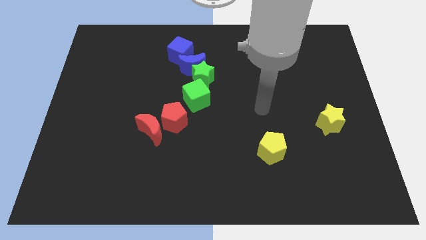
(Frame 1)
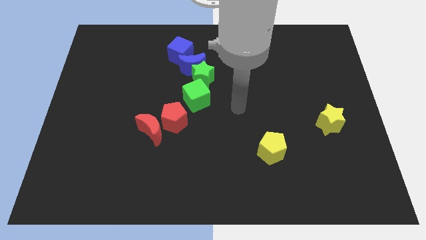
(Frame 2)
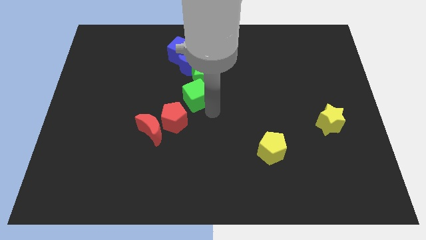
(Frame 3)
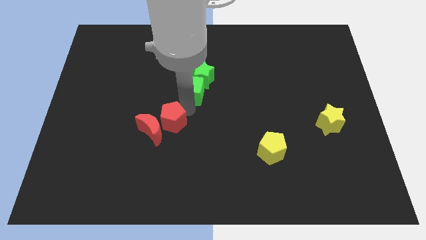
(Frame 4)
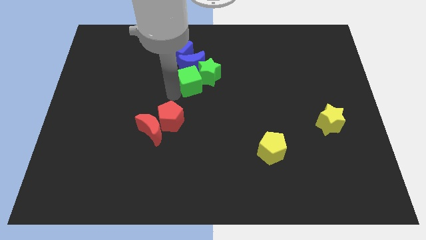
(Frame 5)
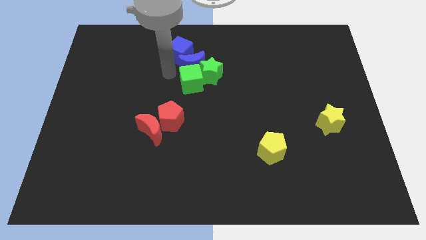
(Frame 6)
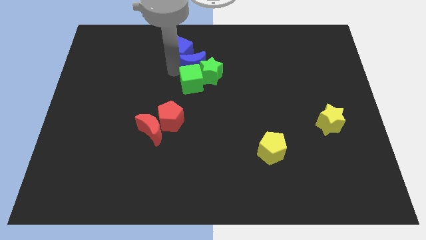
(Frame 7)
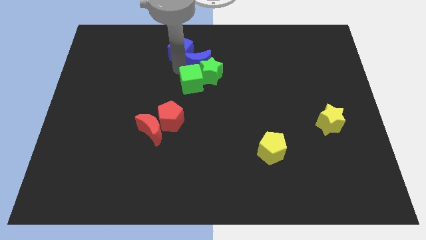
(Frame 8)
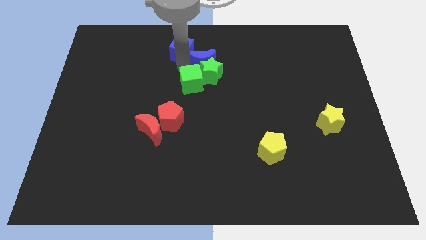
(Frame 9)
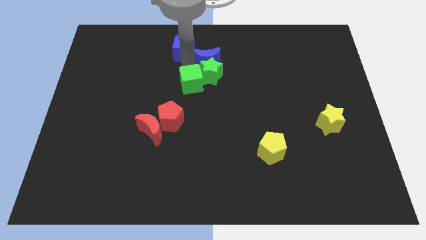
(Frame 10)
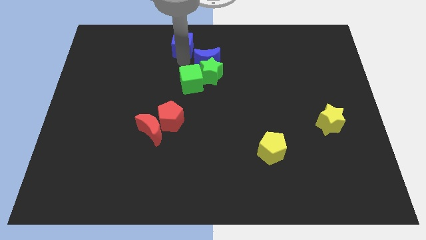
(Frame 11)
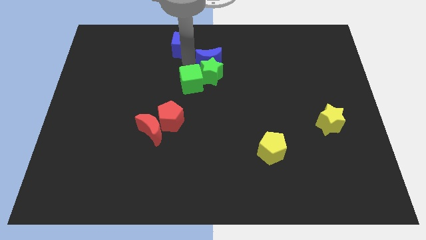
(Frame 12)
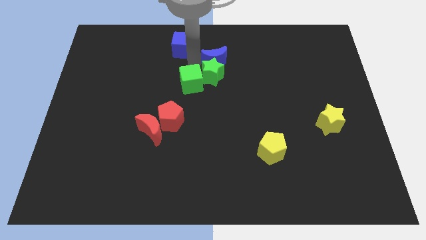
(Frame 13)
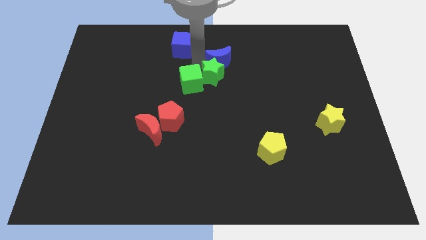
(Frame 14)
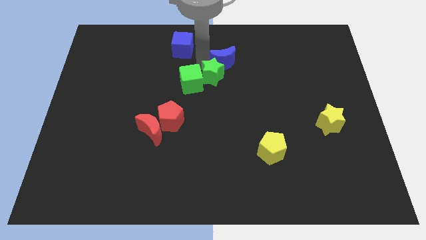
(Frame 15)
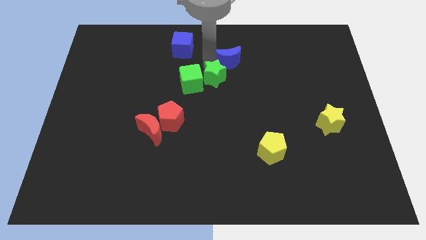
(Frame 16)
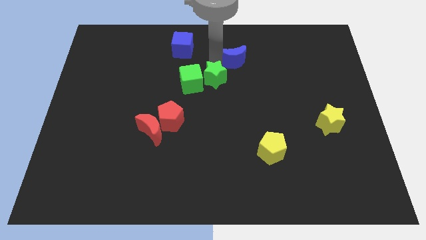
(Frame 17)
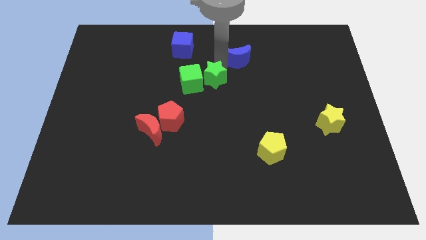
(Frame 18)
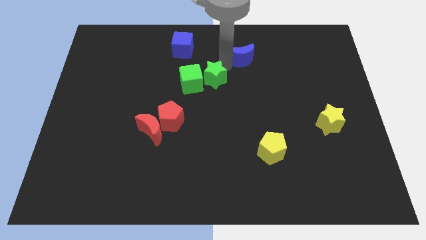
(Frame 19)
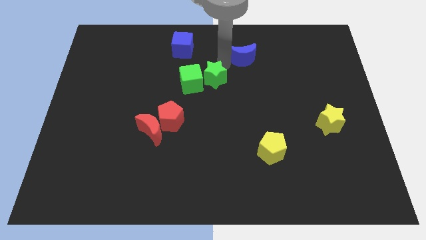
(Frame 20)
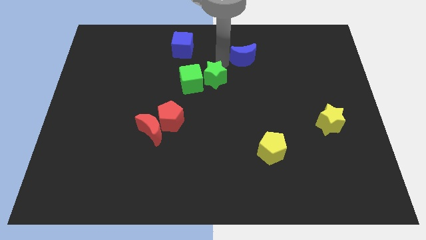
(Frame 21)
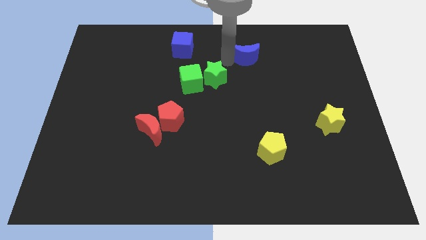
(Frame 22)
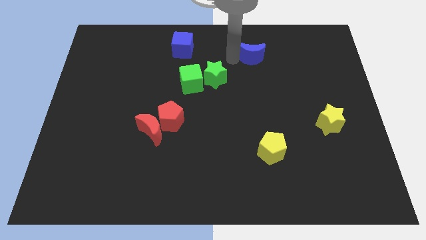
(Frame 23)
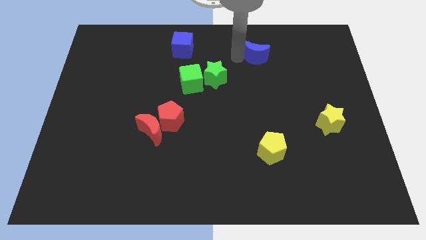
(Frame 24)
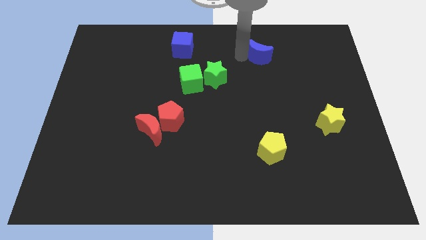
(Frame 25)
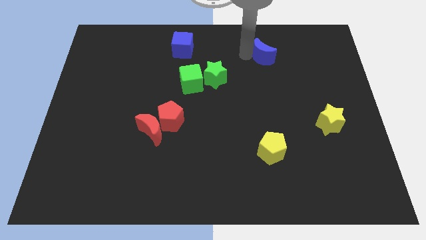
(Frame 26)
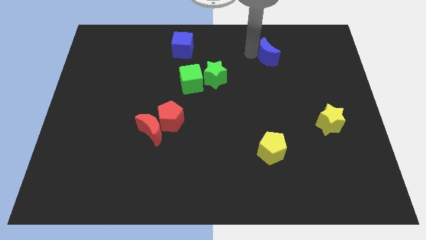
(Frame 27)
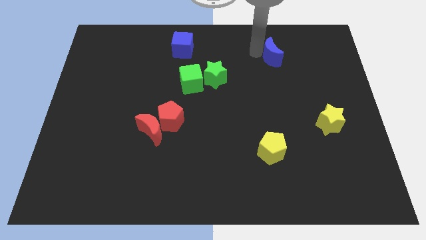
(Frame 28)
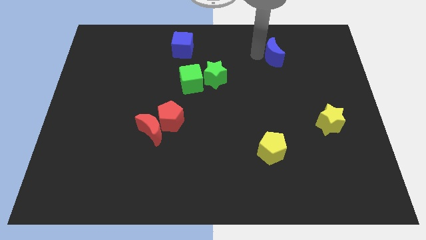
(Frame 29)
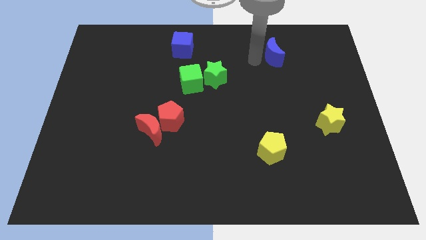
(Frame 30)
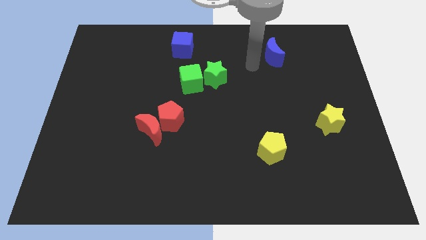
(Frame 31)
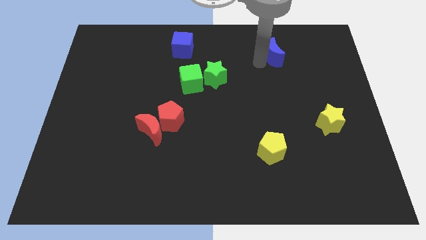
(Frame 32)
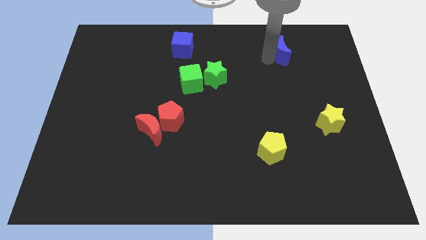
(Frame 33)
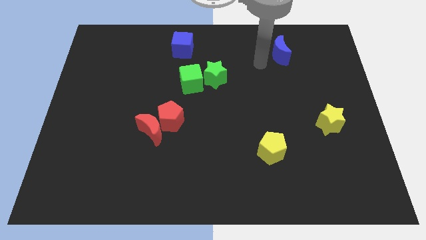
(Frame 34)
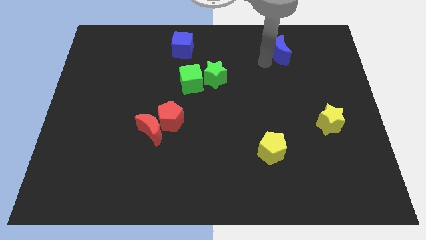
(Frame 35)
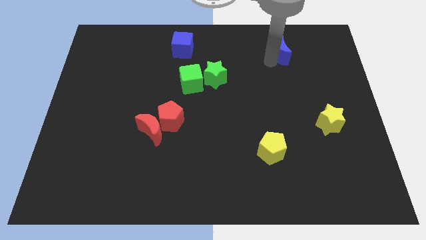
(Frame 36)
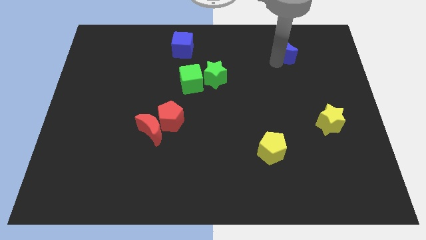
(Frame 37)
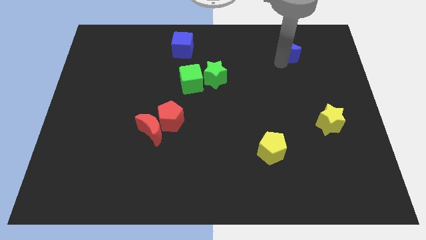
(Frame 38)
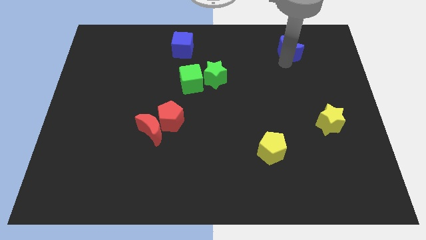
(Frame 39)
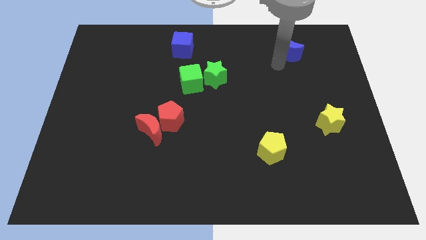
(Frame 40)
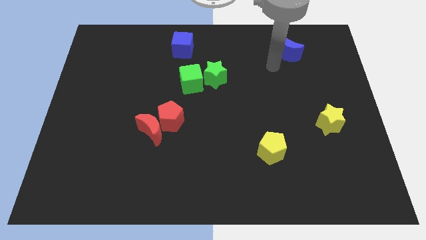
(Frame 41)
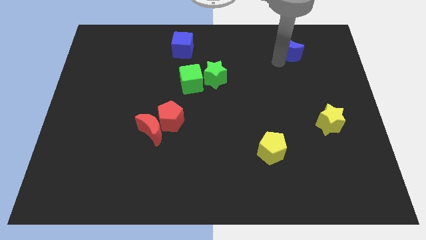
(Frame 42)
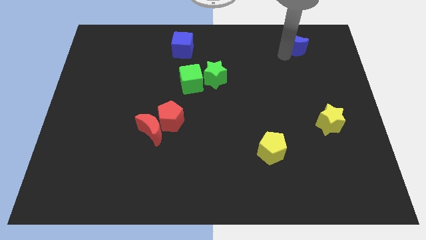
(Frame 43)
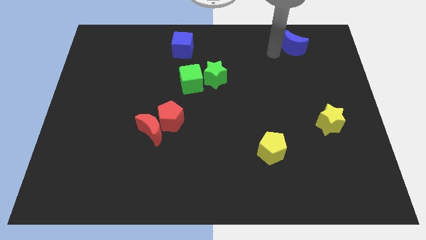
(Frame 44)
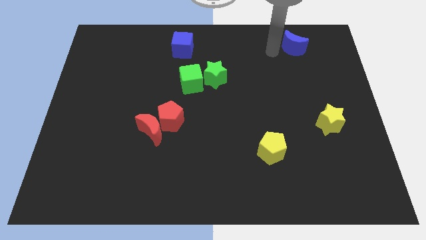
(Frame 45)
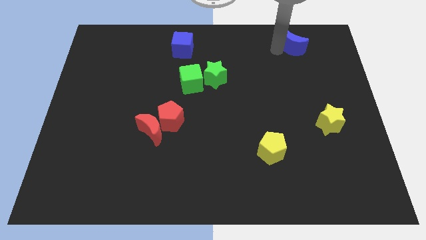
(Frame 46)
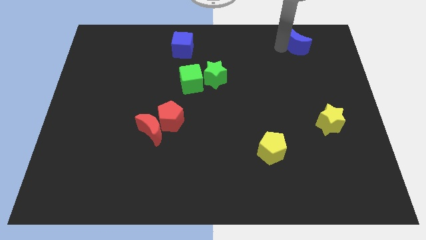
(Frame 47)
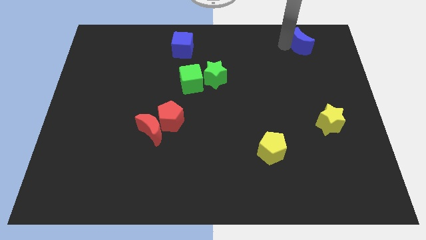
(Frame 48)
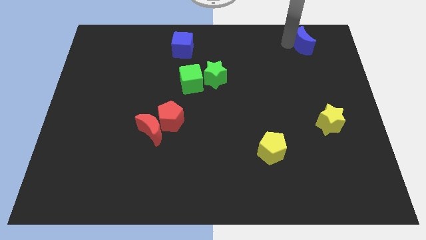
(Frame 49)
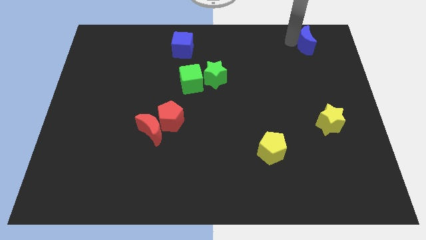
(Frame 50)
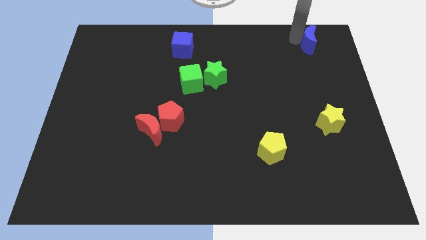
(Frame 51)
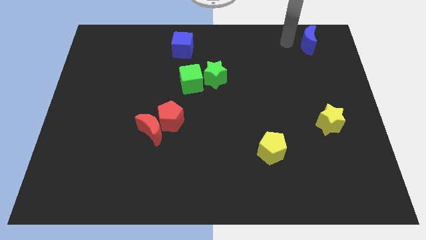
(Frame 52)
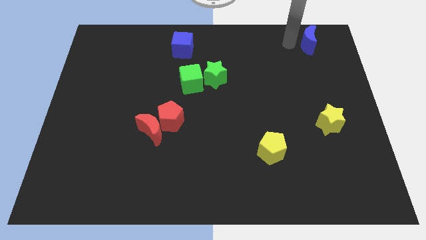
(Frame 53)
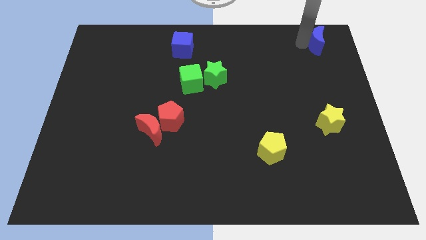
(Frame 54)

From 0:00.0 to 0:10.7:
slide the blue moon to the top right of the board
